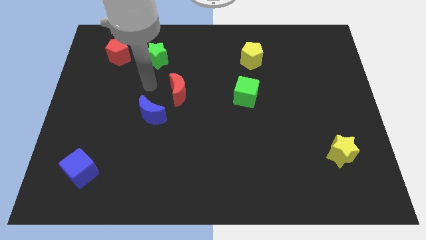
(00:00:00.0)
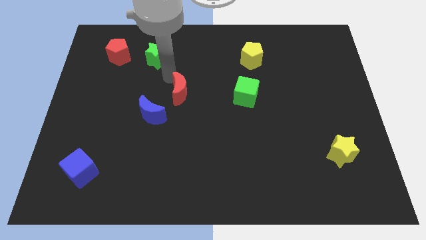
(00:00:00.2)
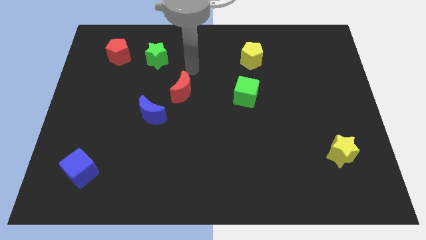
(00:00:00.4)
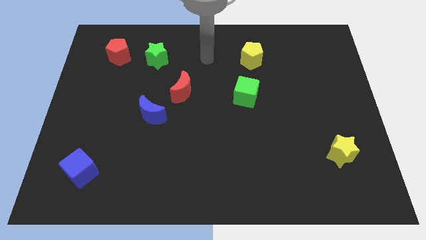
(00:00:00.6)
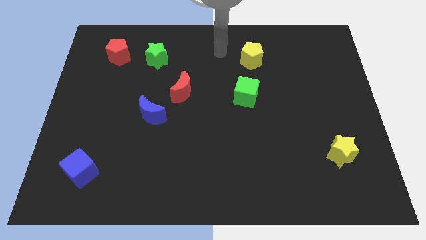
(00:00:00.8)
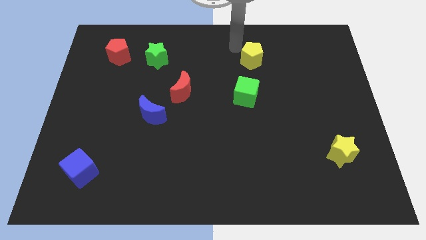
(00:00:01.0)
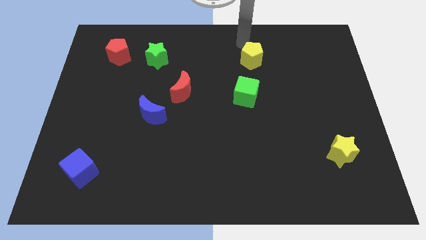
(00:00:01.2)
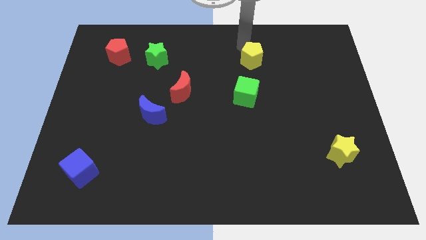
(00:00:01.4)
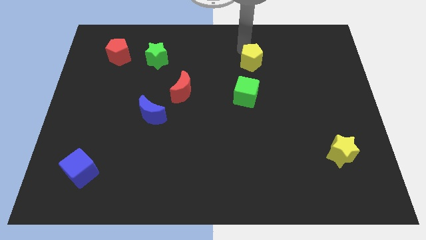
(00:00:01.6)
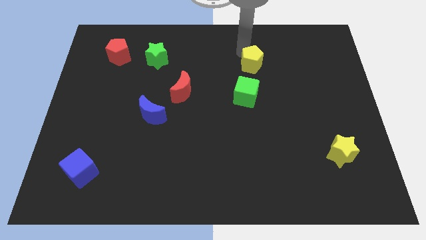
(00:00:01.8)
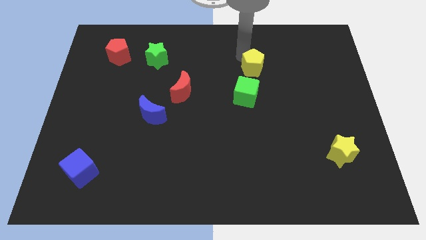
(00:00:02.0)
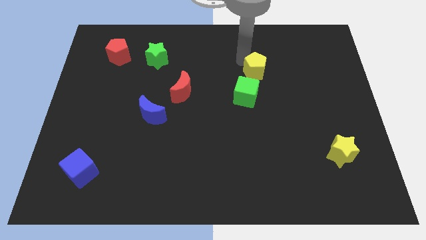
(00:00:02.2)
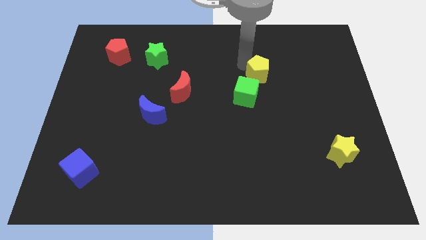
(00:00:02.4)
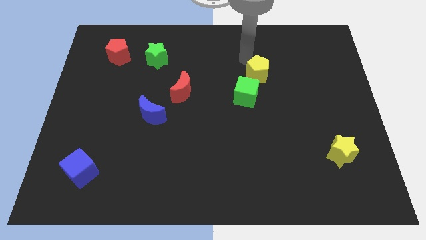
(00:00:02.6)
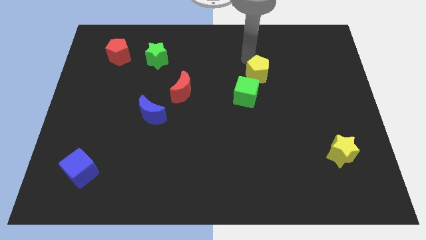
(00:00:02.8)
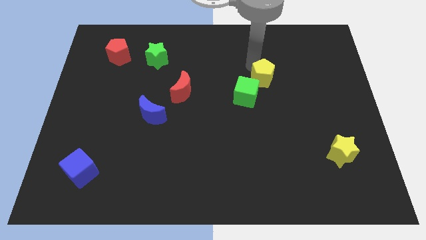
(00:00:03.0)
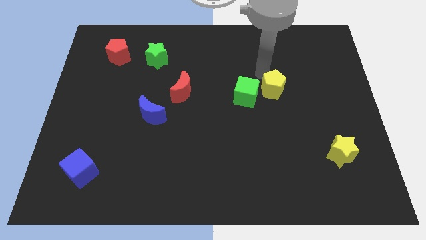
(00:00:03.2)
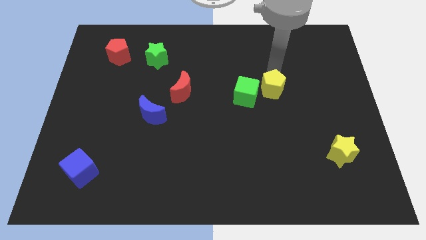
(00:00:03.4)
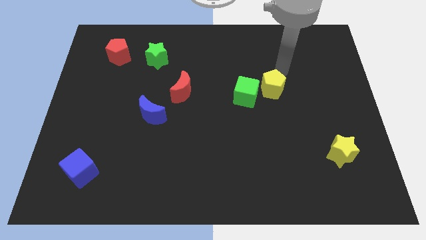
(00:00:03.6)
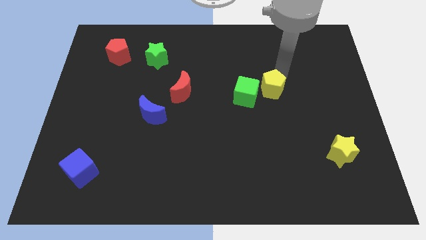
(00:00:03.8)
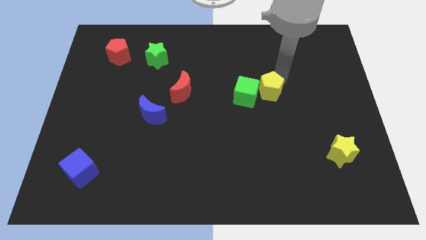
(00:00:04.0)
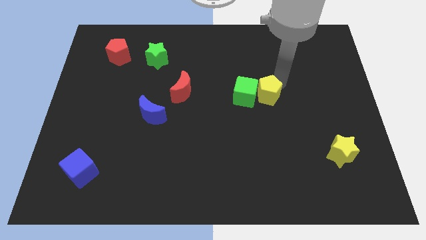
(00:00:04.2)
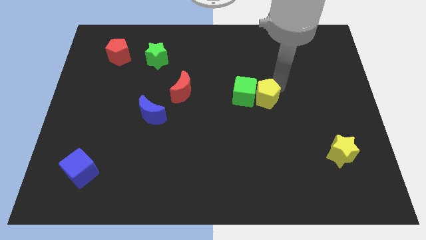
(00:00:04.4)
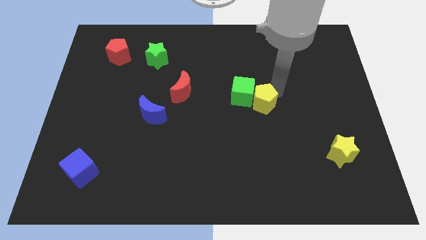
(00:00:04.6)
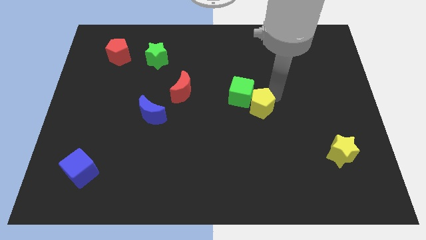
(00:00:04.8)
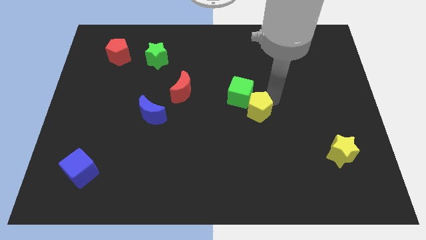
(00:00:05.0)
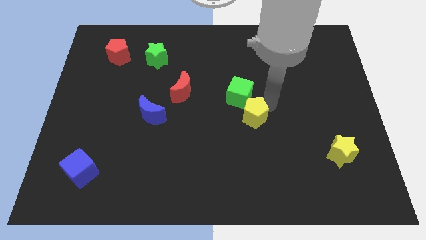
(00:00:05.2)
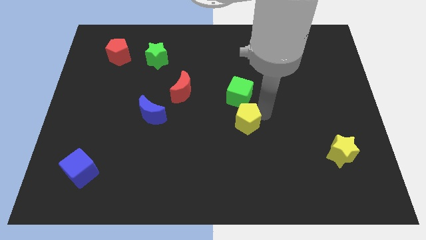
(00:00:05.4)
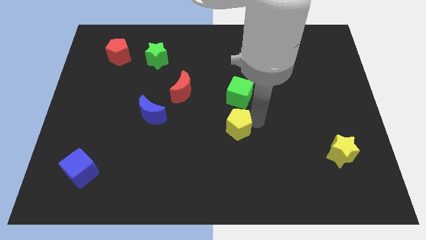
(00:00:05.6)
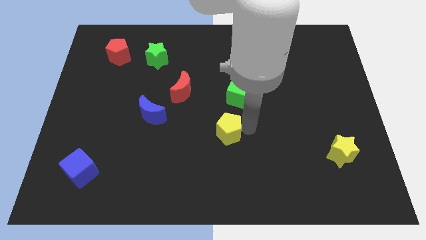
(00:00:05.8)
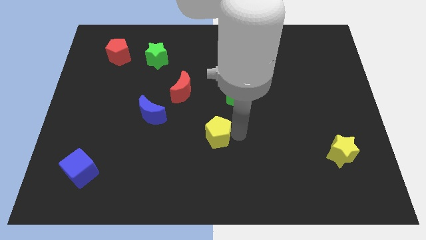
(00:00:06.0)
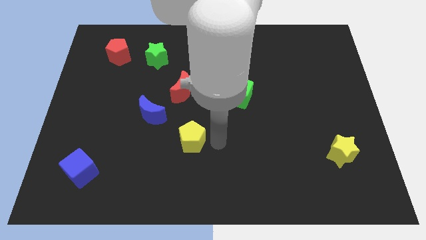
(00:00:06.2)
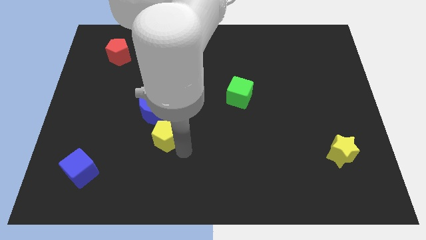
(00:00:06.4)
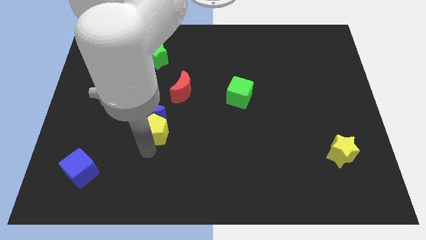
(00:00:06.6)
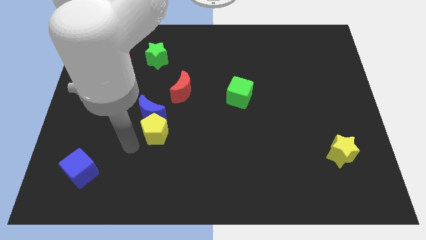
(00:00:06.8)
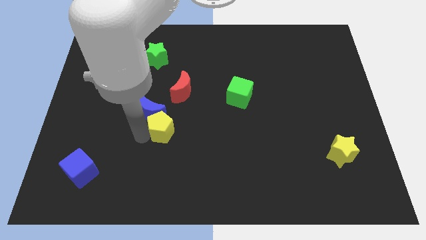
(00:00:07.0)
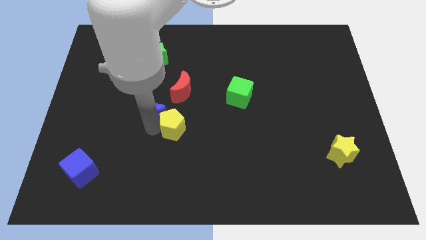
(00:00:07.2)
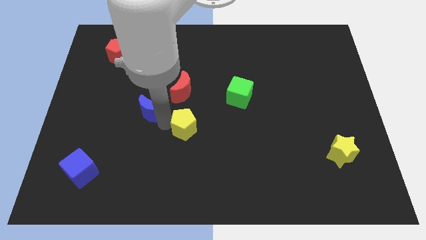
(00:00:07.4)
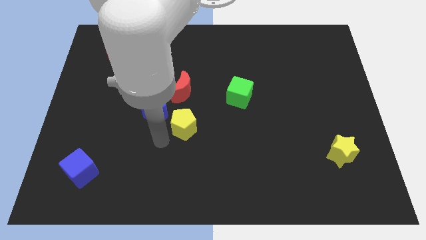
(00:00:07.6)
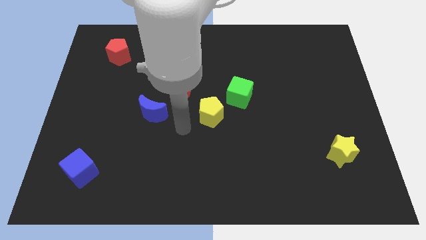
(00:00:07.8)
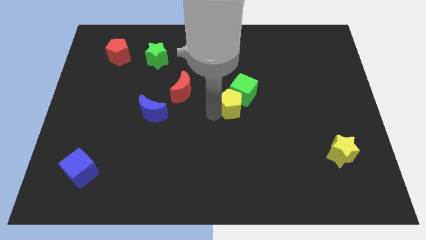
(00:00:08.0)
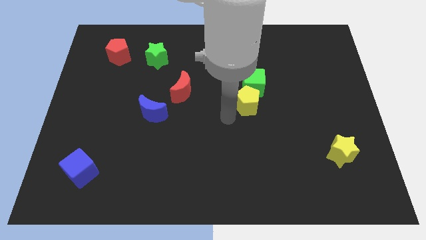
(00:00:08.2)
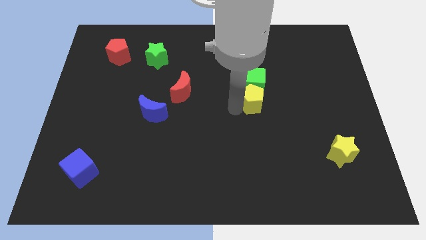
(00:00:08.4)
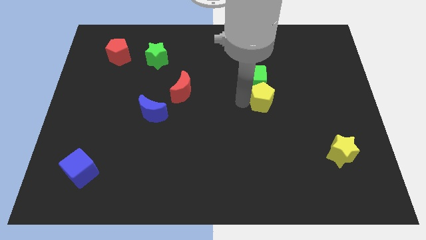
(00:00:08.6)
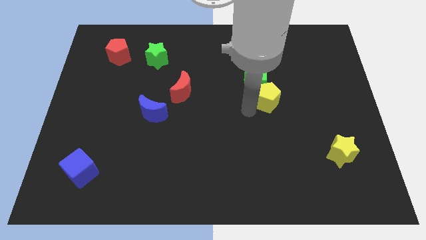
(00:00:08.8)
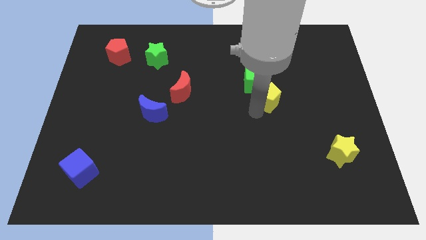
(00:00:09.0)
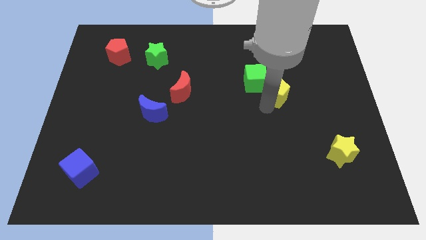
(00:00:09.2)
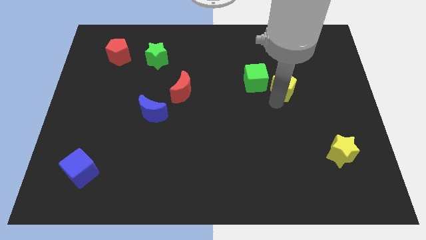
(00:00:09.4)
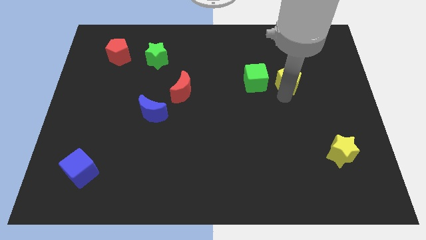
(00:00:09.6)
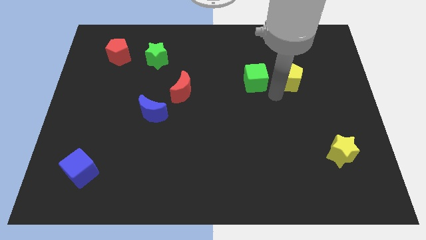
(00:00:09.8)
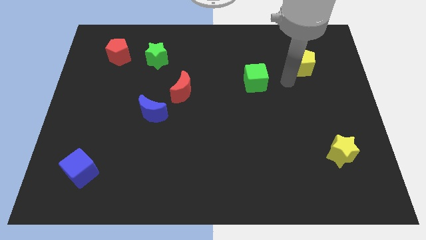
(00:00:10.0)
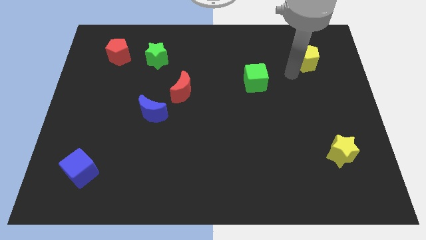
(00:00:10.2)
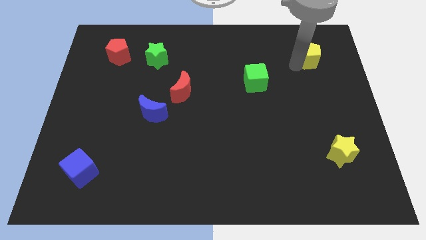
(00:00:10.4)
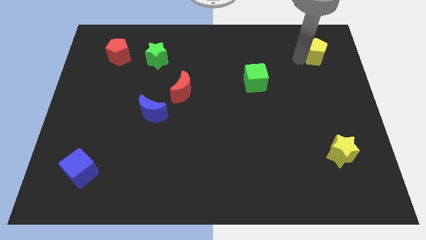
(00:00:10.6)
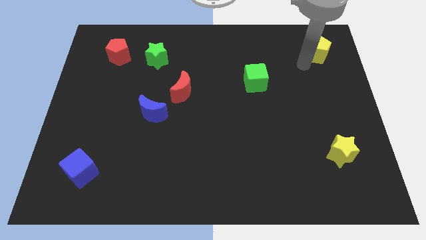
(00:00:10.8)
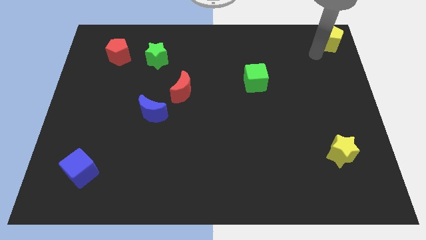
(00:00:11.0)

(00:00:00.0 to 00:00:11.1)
push the yellow pentagon to the top right
